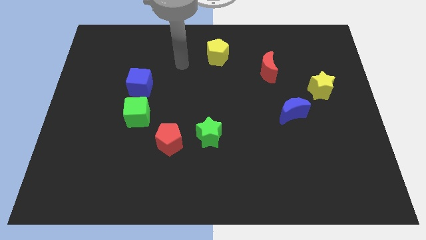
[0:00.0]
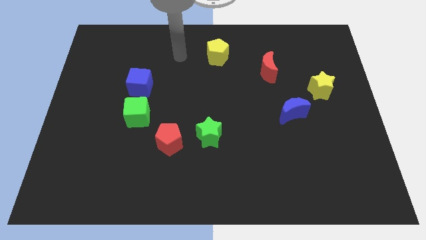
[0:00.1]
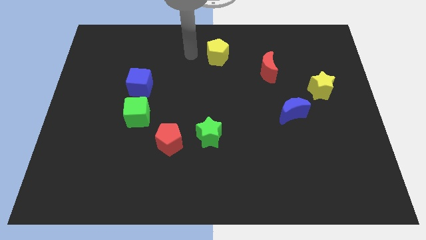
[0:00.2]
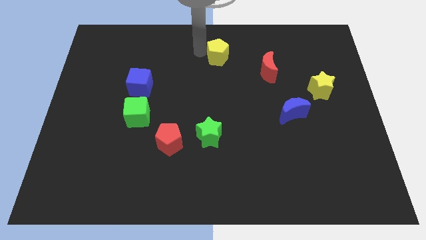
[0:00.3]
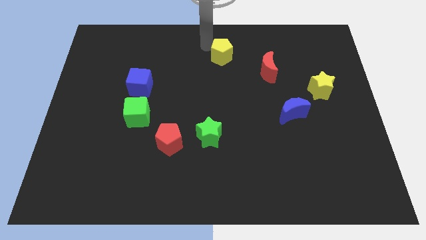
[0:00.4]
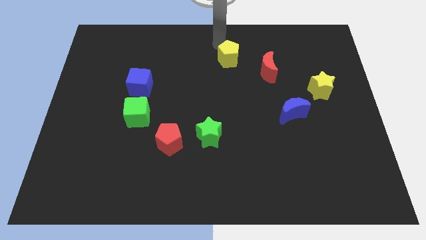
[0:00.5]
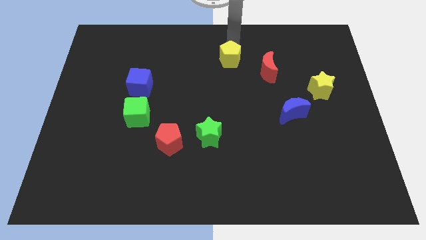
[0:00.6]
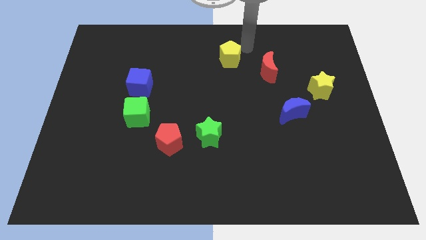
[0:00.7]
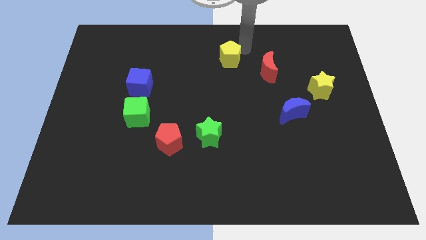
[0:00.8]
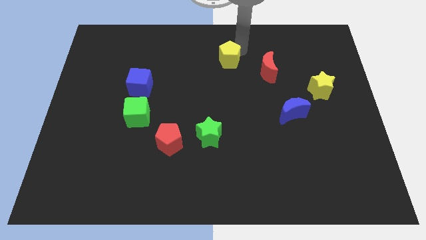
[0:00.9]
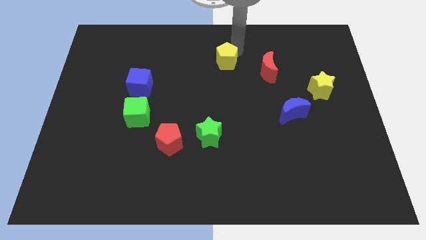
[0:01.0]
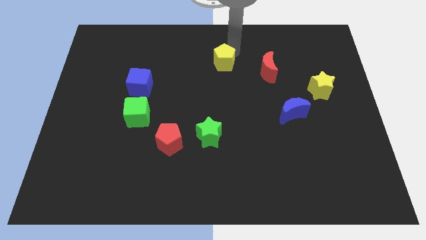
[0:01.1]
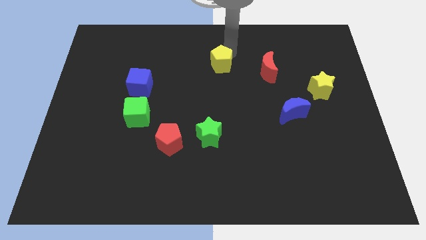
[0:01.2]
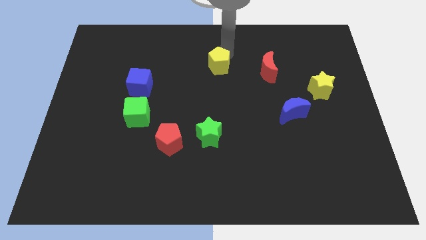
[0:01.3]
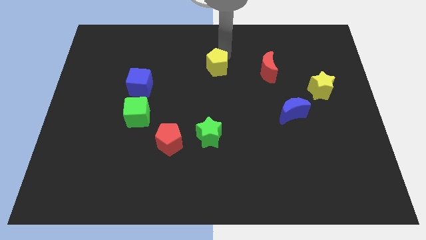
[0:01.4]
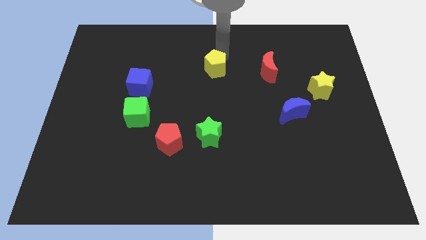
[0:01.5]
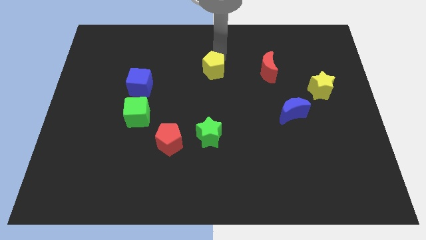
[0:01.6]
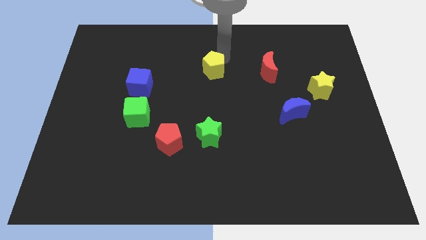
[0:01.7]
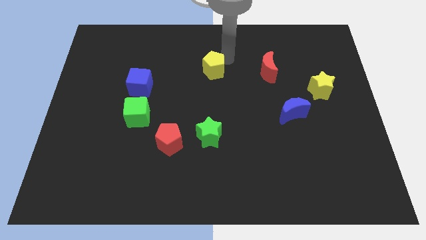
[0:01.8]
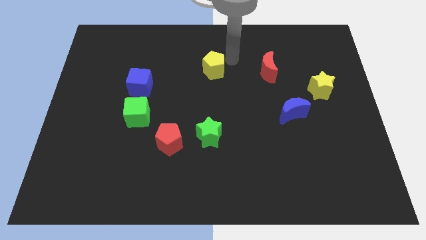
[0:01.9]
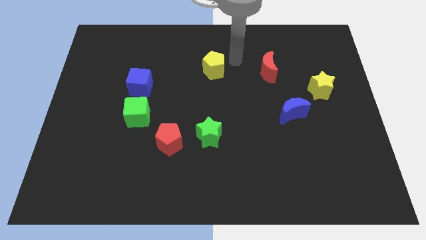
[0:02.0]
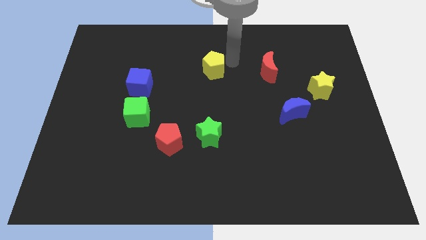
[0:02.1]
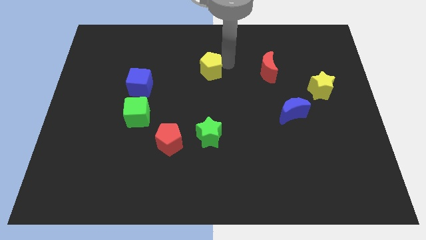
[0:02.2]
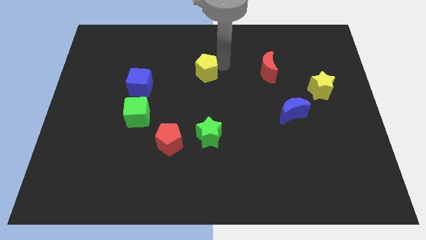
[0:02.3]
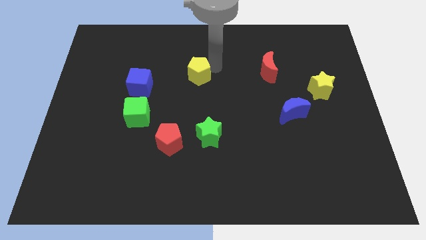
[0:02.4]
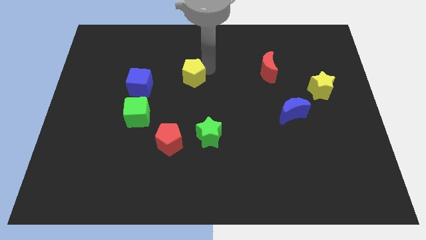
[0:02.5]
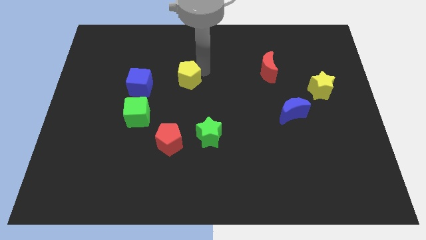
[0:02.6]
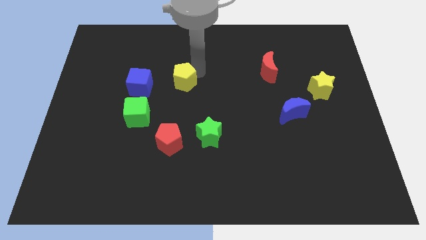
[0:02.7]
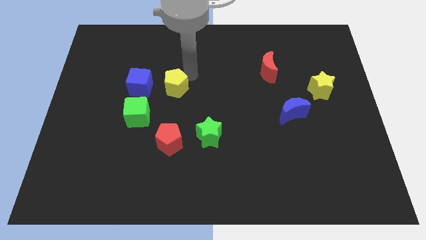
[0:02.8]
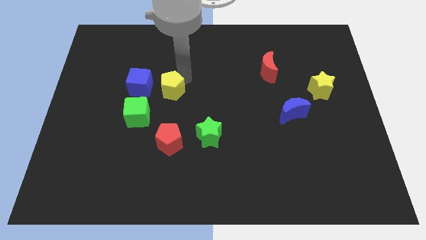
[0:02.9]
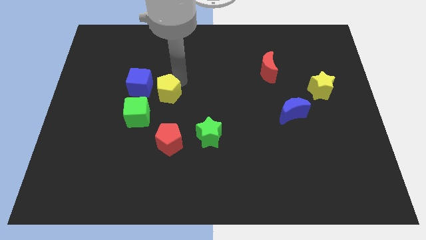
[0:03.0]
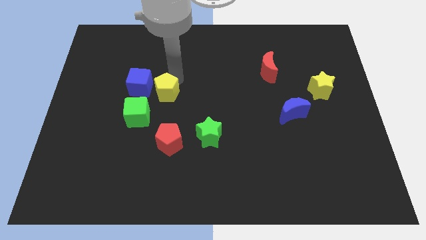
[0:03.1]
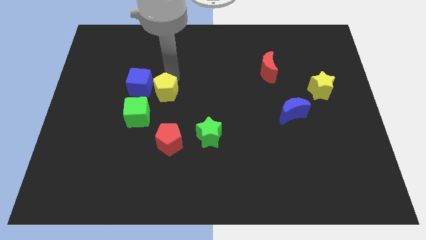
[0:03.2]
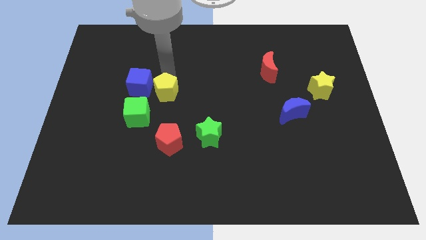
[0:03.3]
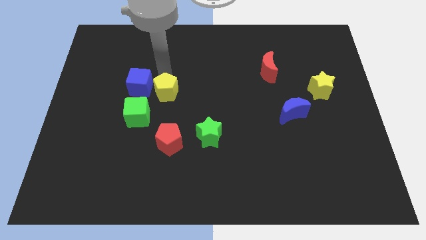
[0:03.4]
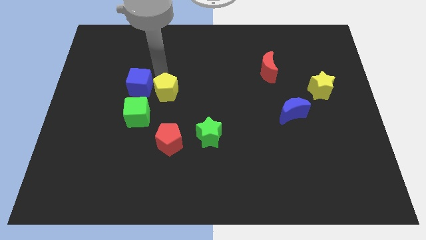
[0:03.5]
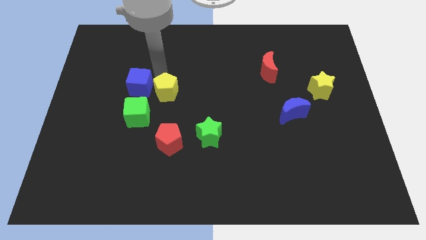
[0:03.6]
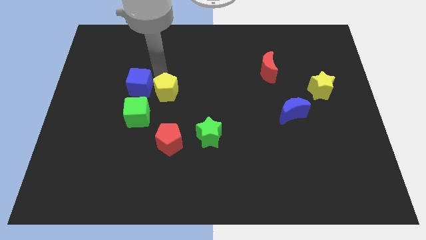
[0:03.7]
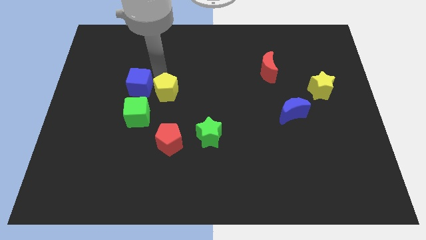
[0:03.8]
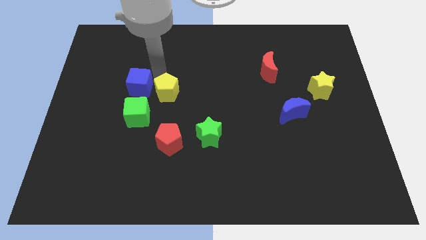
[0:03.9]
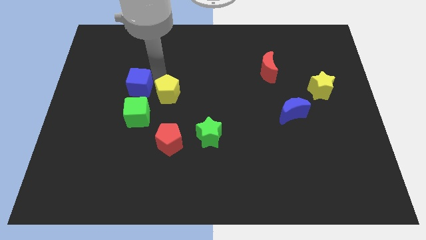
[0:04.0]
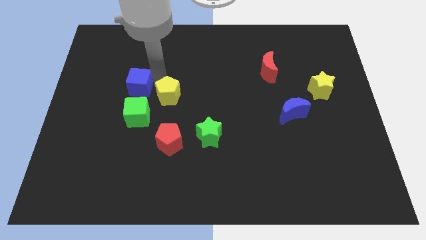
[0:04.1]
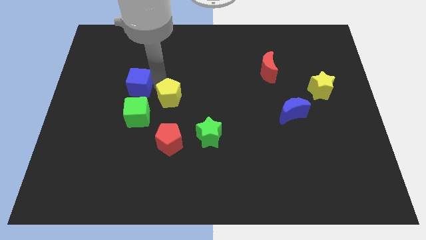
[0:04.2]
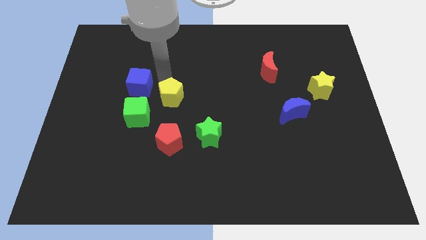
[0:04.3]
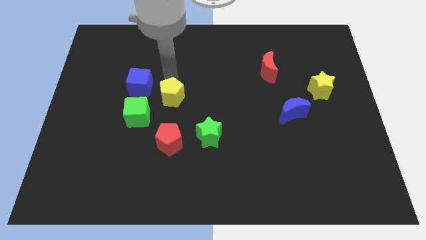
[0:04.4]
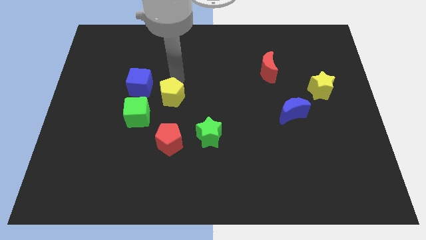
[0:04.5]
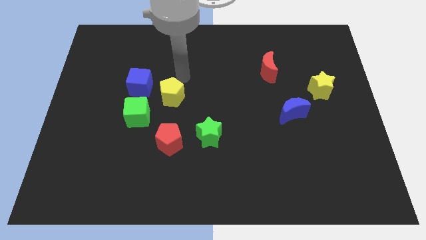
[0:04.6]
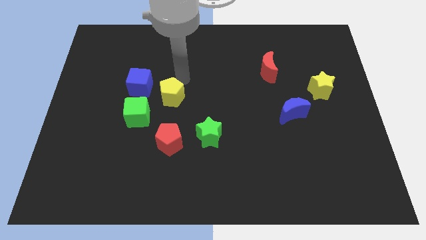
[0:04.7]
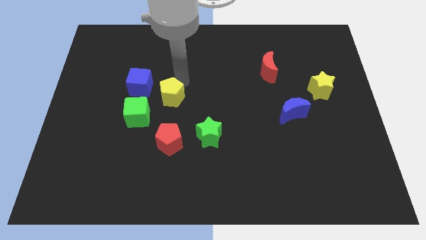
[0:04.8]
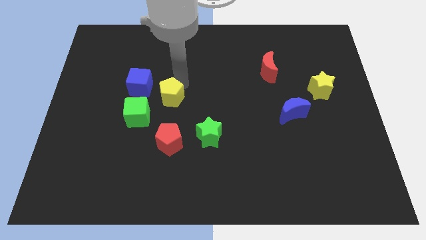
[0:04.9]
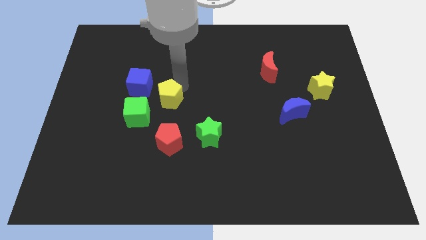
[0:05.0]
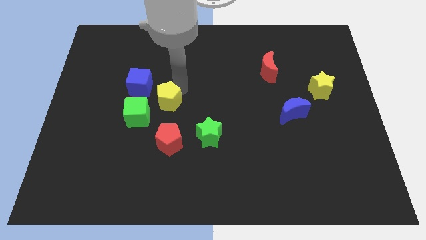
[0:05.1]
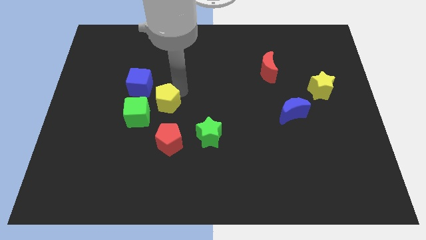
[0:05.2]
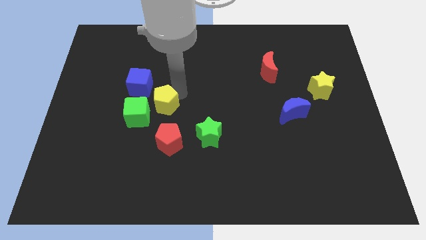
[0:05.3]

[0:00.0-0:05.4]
slide the yellow pentagon downwards and then left

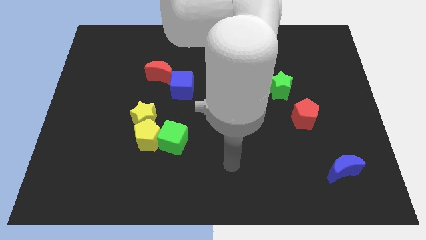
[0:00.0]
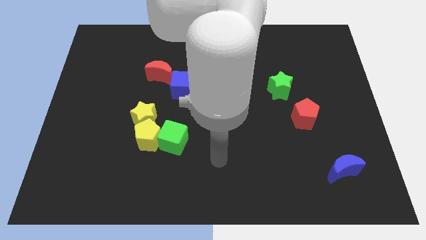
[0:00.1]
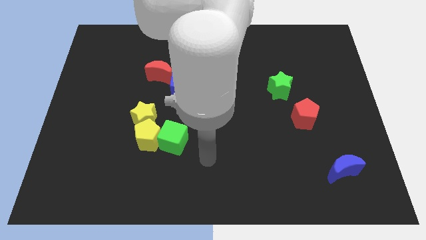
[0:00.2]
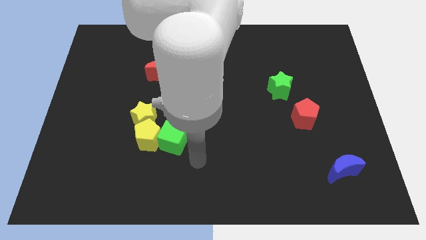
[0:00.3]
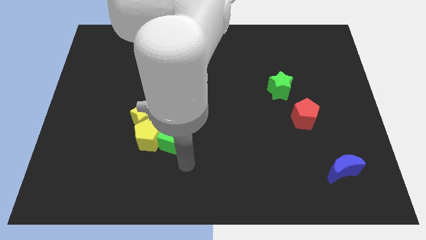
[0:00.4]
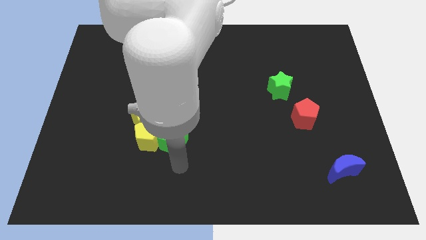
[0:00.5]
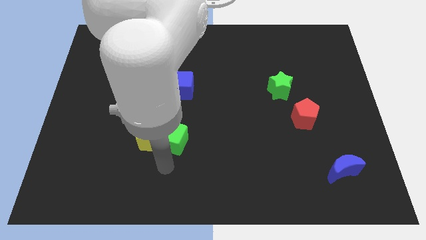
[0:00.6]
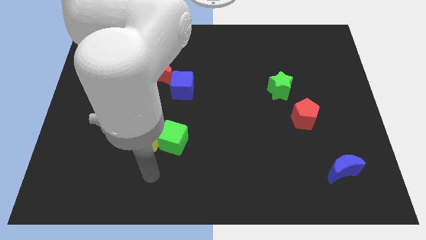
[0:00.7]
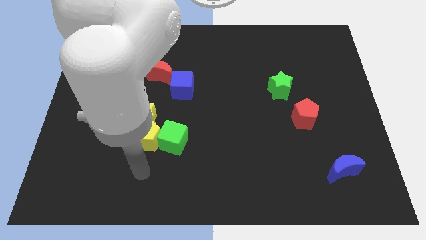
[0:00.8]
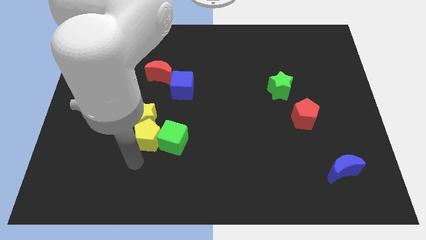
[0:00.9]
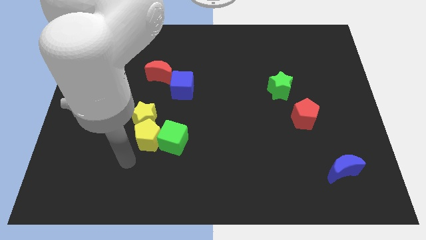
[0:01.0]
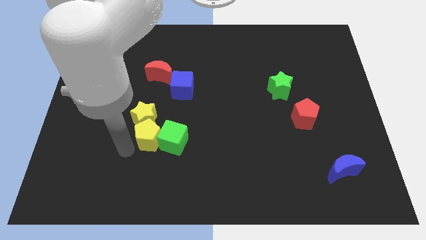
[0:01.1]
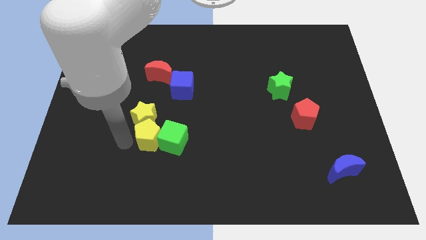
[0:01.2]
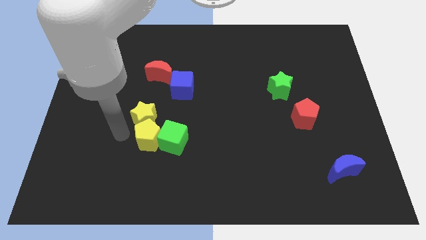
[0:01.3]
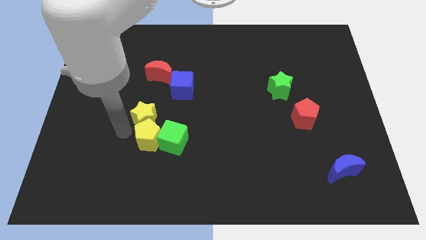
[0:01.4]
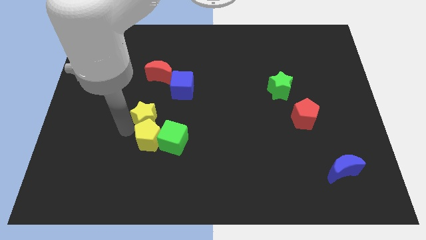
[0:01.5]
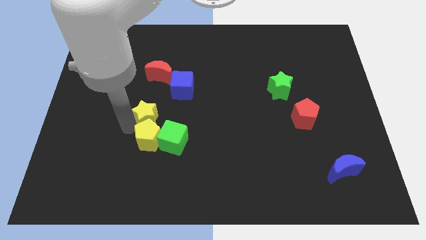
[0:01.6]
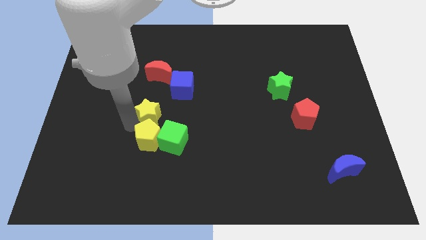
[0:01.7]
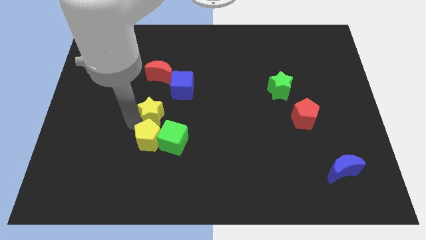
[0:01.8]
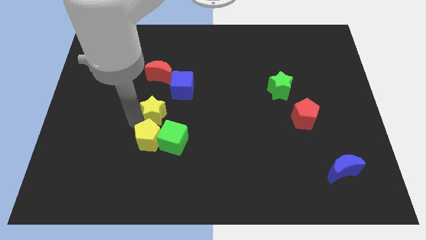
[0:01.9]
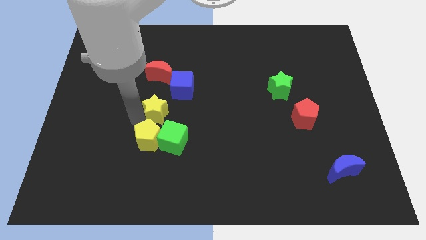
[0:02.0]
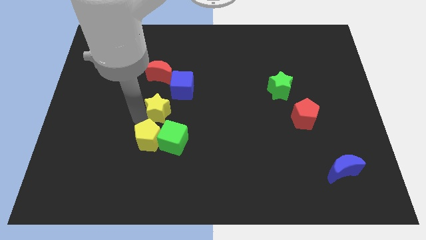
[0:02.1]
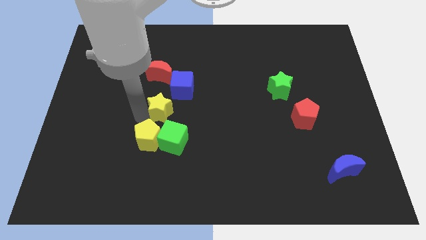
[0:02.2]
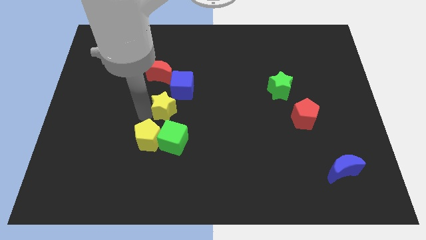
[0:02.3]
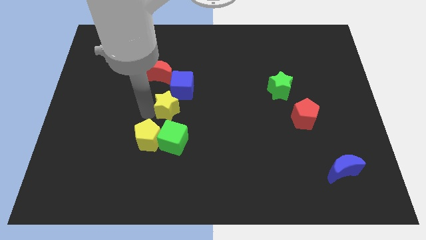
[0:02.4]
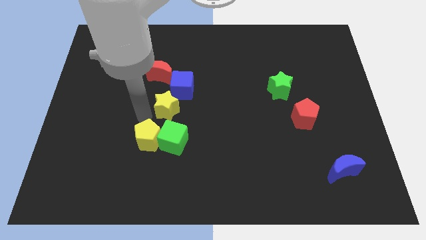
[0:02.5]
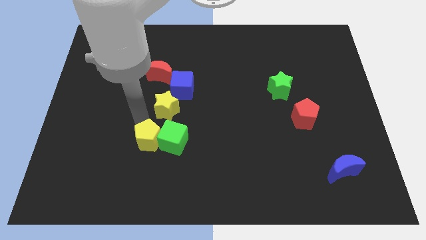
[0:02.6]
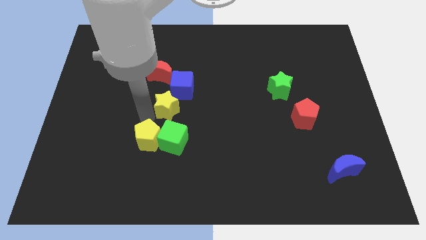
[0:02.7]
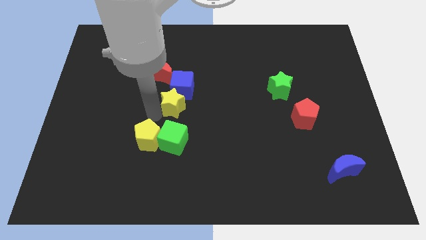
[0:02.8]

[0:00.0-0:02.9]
slide the yellow star up and right diagonally a bit

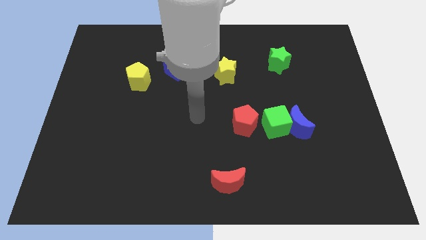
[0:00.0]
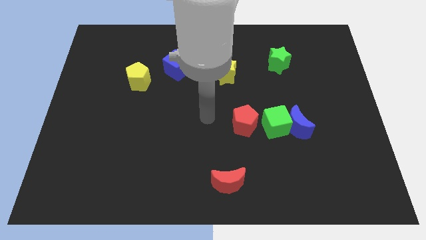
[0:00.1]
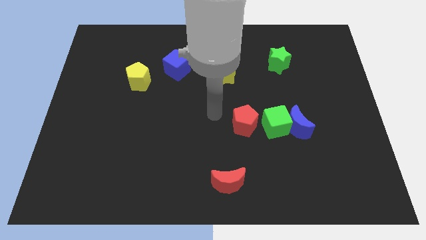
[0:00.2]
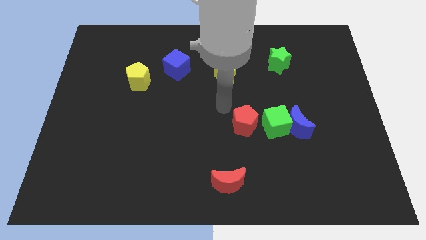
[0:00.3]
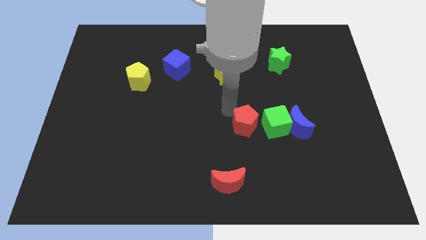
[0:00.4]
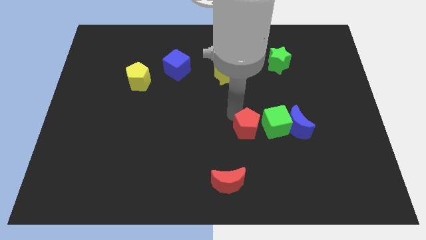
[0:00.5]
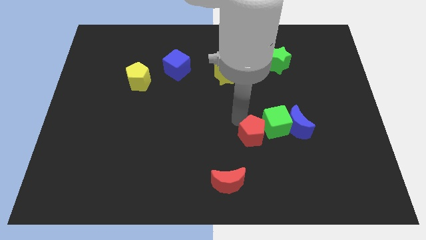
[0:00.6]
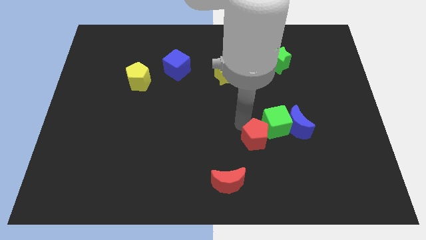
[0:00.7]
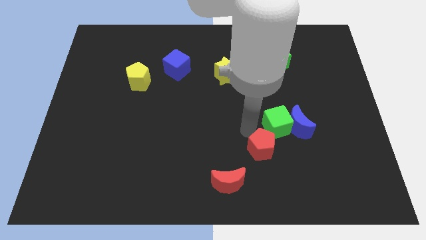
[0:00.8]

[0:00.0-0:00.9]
move the red pentagon diagonally downwards and right a little bit
